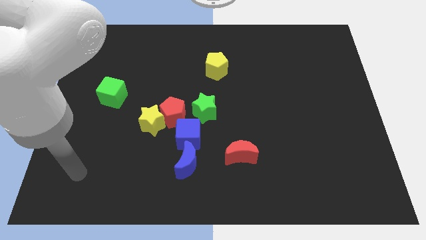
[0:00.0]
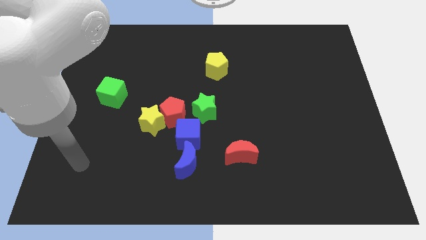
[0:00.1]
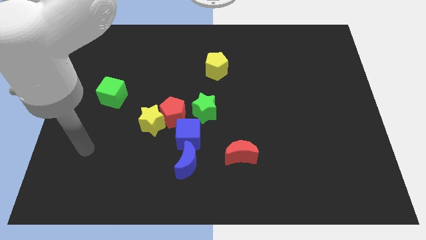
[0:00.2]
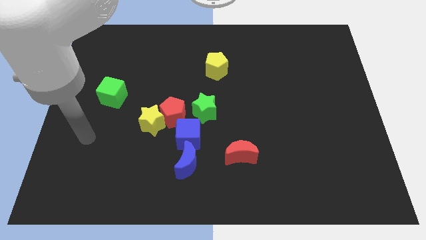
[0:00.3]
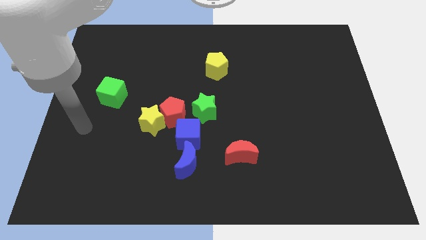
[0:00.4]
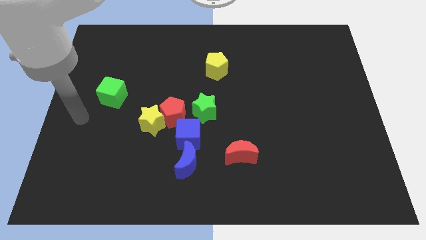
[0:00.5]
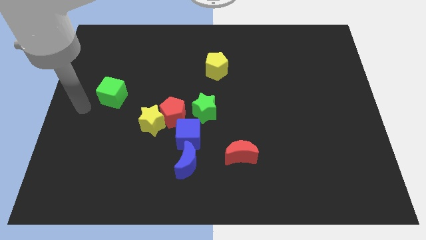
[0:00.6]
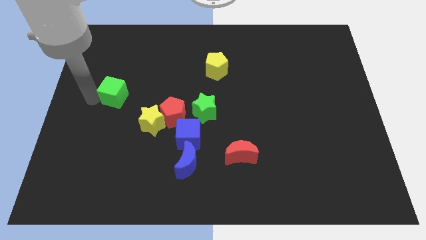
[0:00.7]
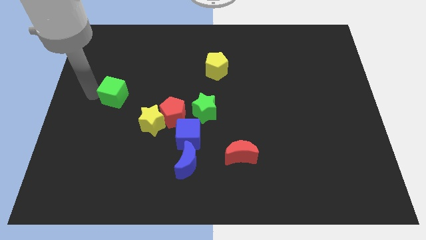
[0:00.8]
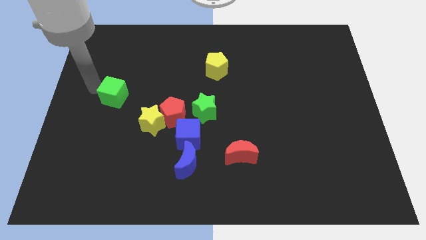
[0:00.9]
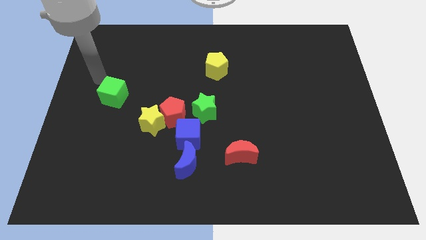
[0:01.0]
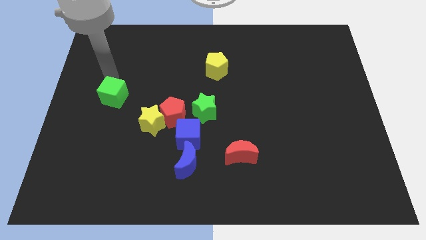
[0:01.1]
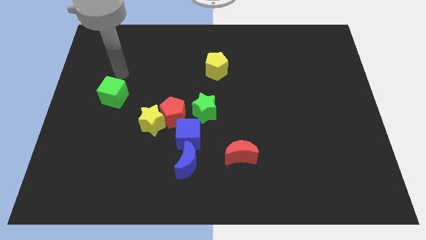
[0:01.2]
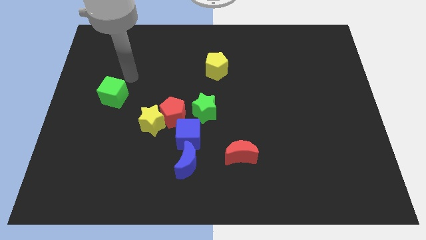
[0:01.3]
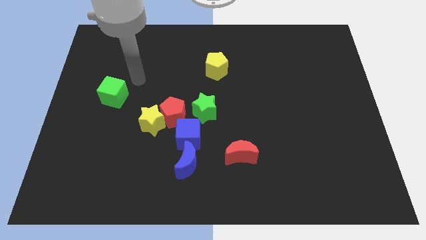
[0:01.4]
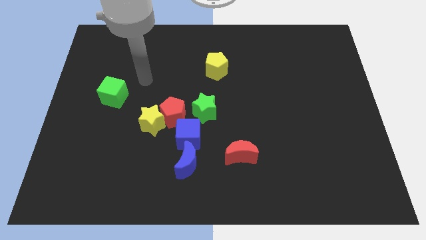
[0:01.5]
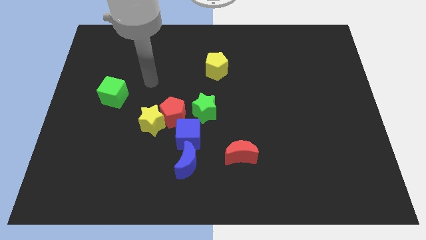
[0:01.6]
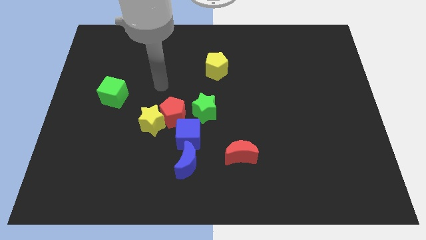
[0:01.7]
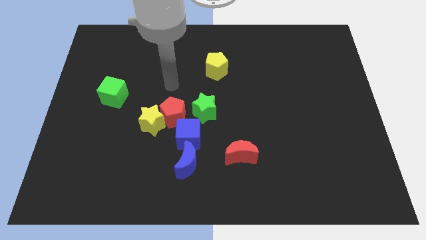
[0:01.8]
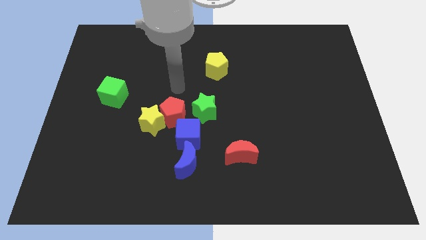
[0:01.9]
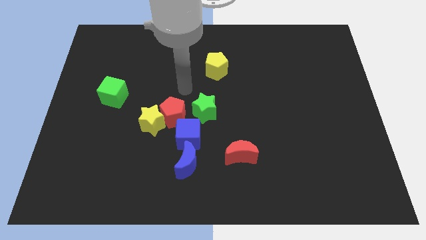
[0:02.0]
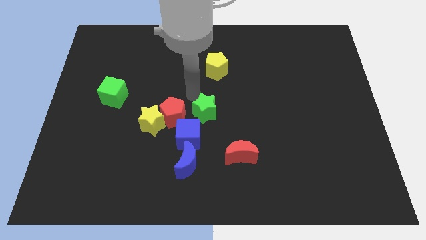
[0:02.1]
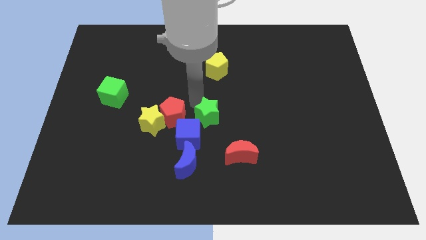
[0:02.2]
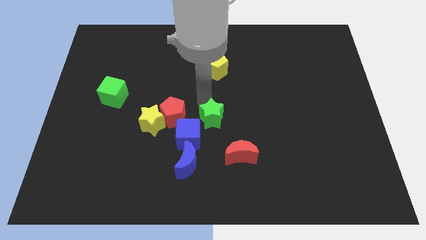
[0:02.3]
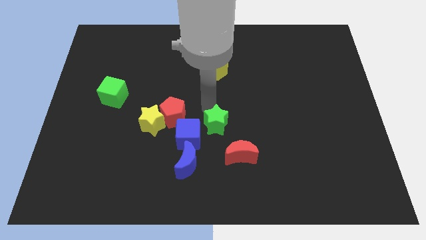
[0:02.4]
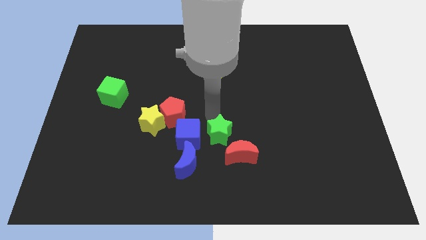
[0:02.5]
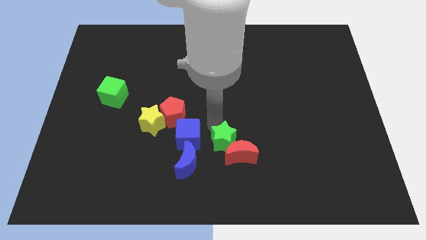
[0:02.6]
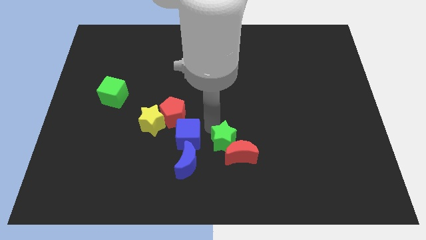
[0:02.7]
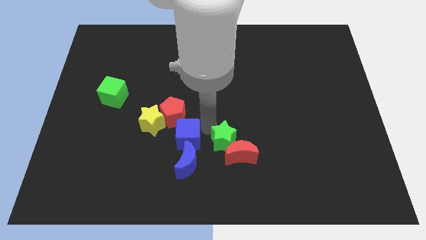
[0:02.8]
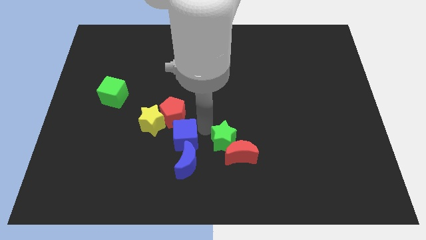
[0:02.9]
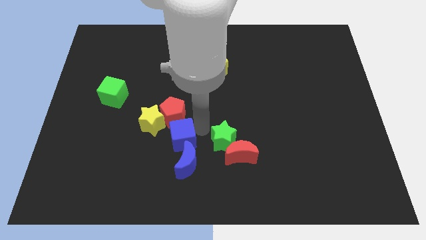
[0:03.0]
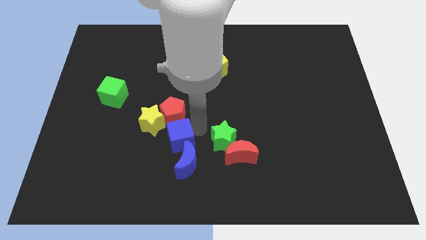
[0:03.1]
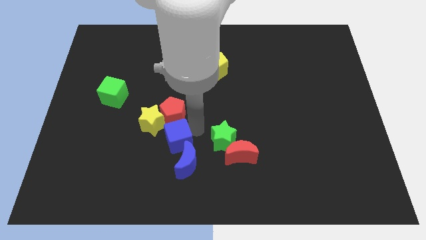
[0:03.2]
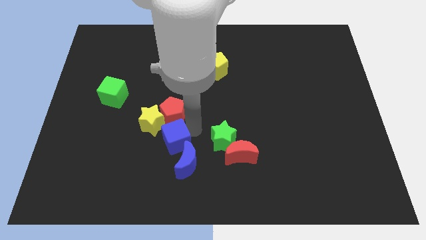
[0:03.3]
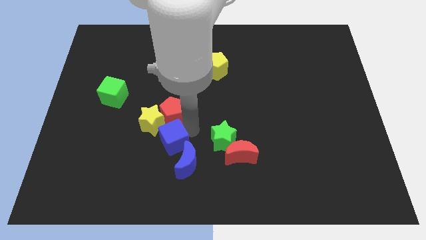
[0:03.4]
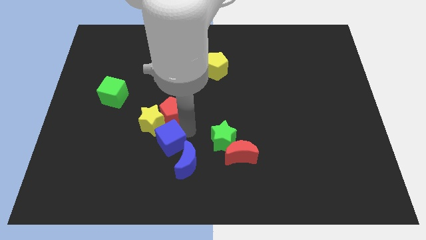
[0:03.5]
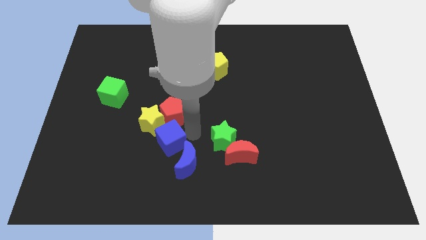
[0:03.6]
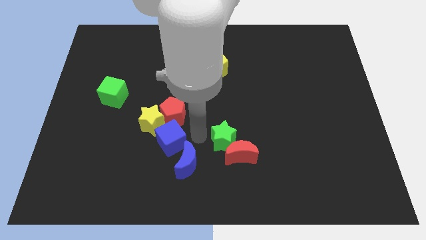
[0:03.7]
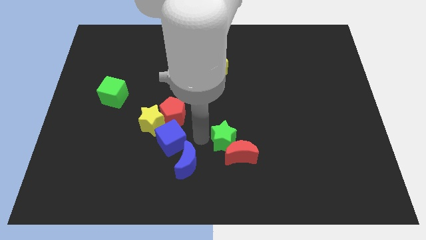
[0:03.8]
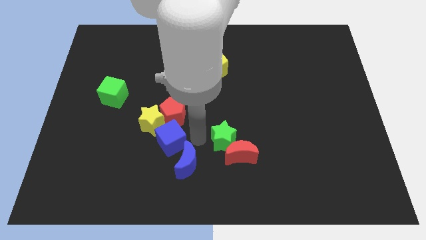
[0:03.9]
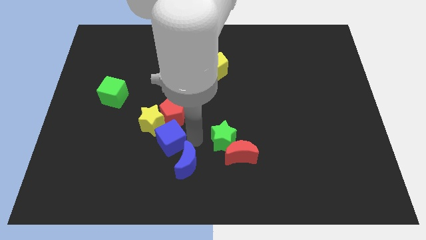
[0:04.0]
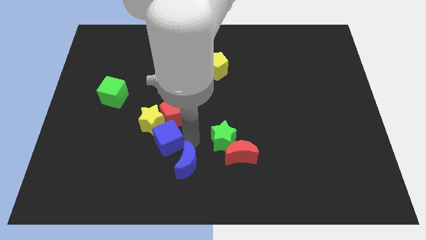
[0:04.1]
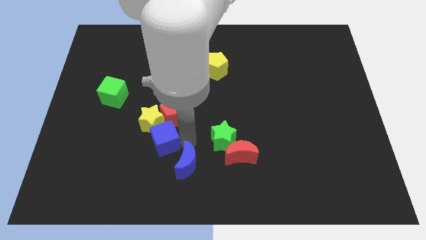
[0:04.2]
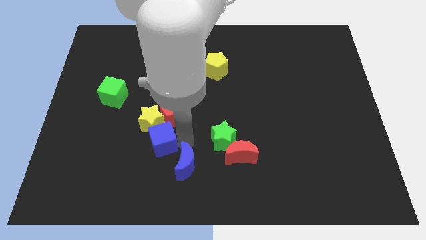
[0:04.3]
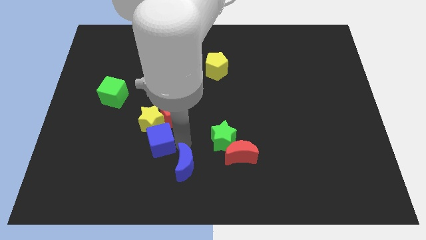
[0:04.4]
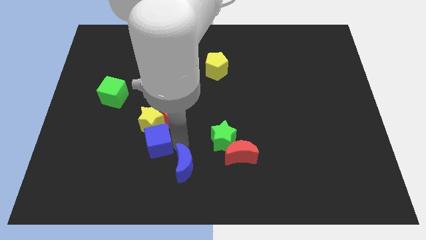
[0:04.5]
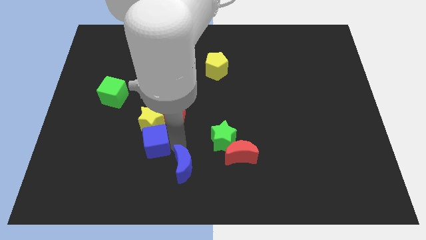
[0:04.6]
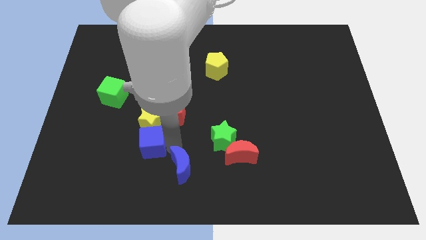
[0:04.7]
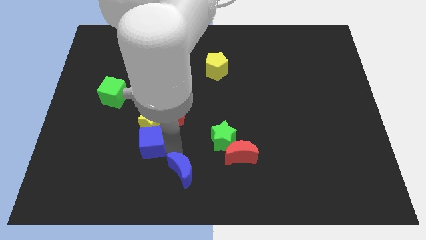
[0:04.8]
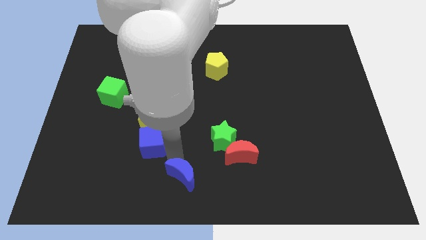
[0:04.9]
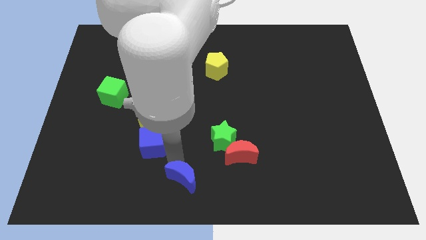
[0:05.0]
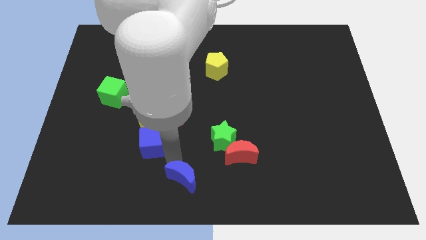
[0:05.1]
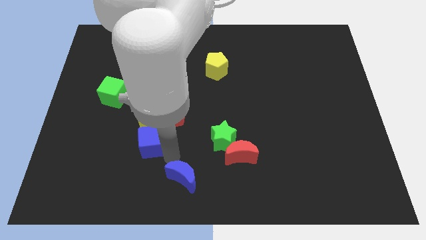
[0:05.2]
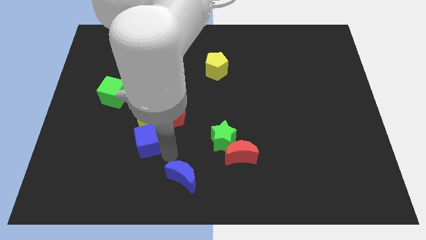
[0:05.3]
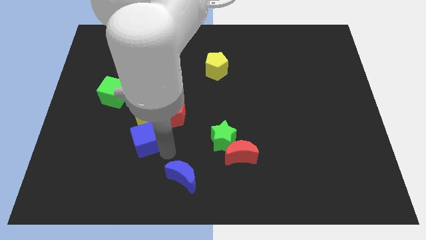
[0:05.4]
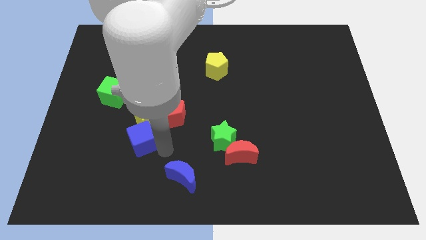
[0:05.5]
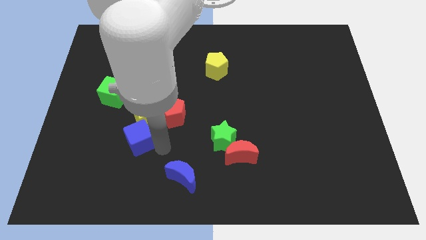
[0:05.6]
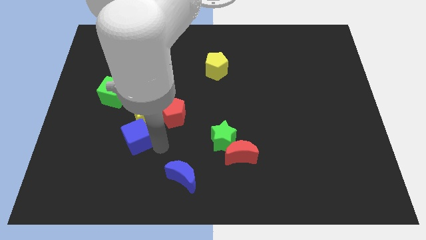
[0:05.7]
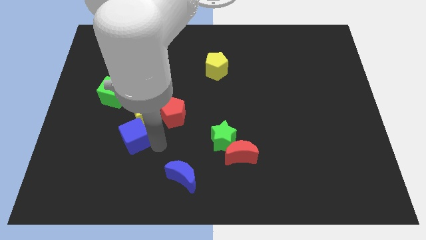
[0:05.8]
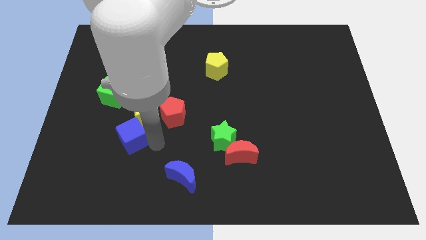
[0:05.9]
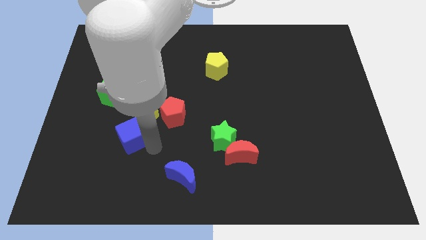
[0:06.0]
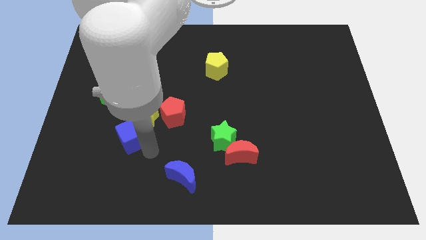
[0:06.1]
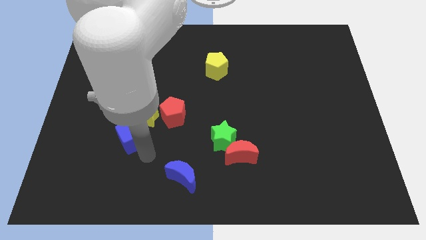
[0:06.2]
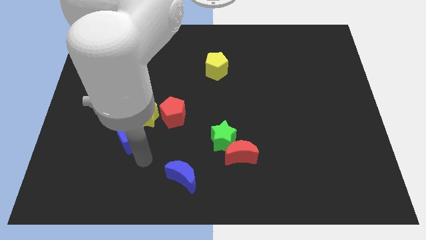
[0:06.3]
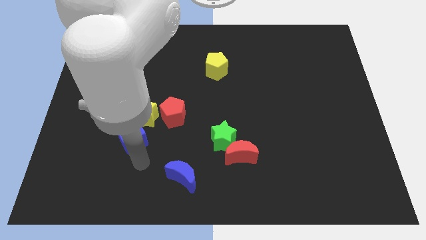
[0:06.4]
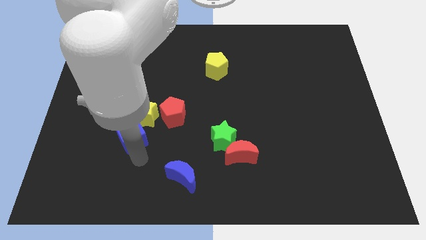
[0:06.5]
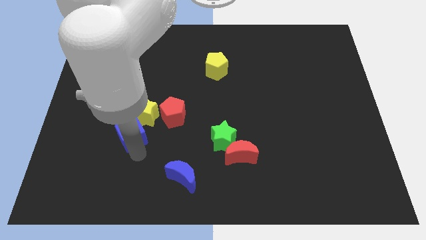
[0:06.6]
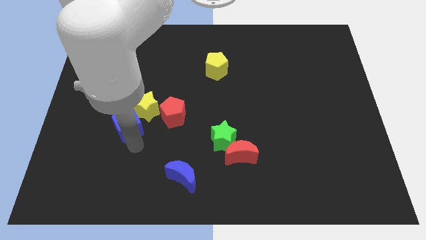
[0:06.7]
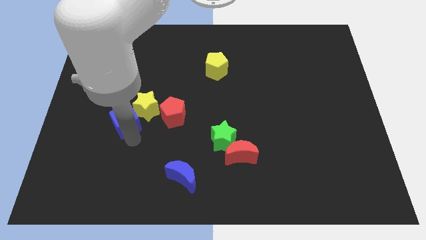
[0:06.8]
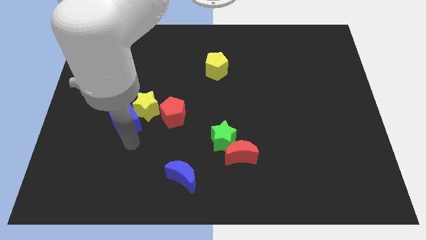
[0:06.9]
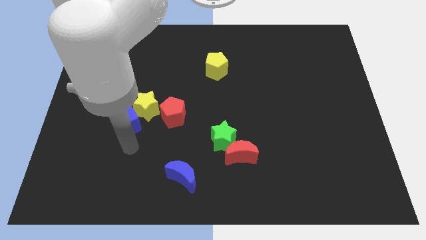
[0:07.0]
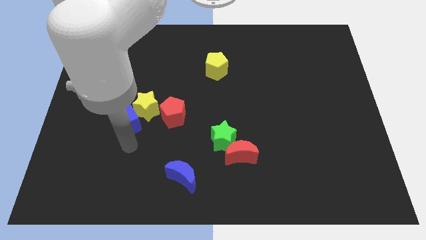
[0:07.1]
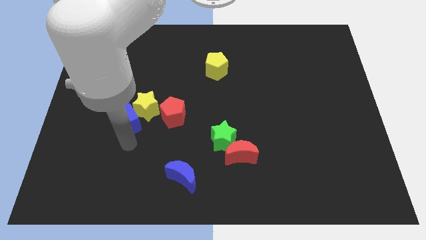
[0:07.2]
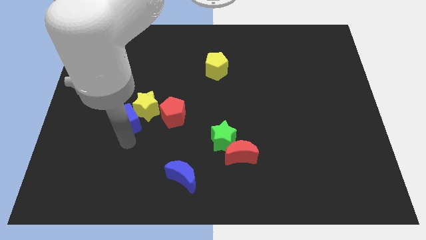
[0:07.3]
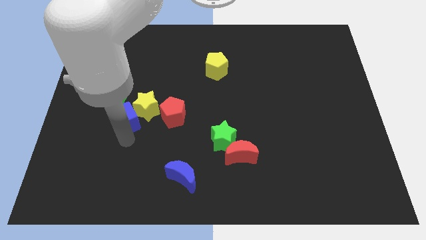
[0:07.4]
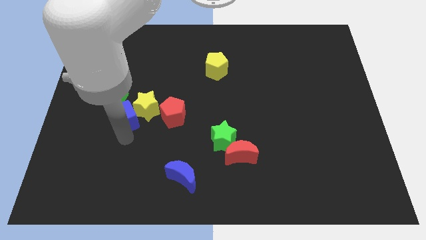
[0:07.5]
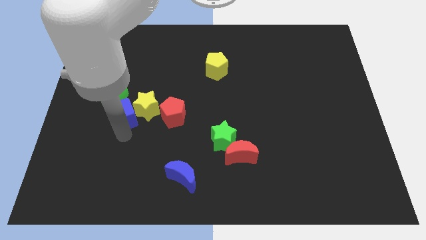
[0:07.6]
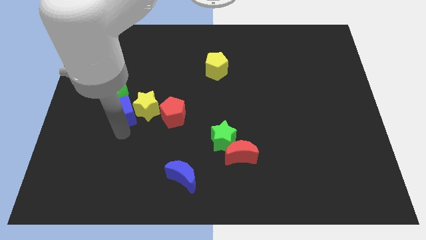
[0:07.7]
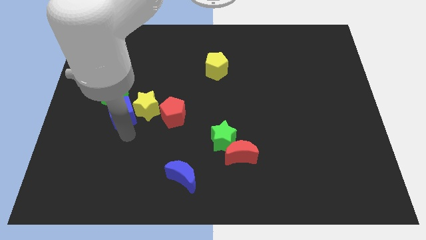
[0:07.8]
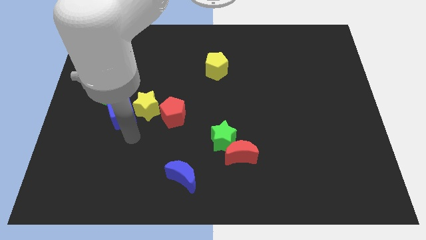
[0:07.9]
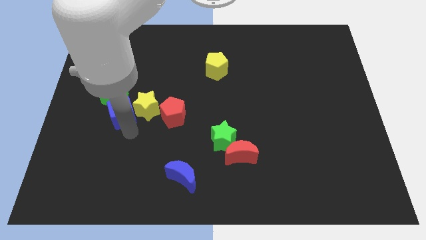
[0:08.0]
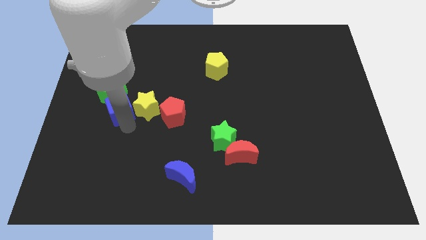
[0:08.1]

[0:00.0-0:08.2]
slide the blue cube towards the green cube
